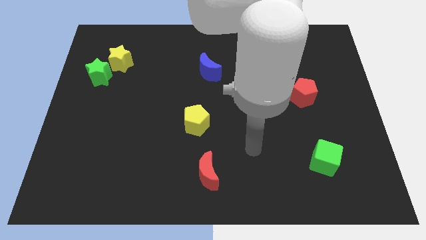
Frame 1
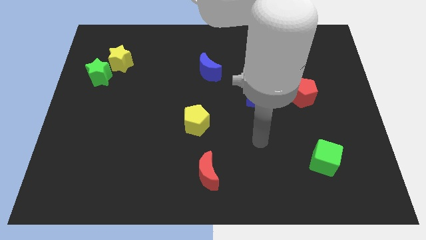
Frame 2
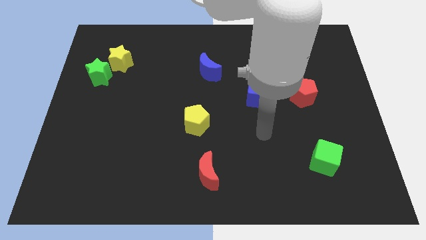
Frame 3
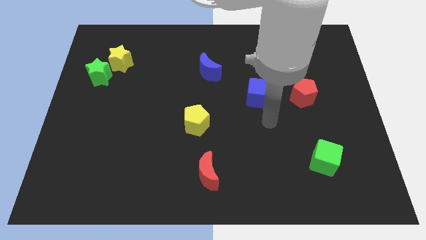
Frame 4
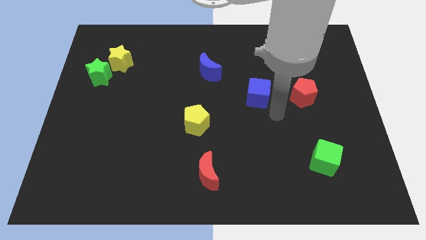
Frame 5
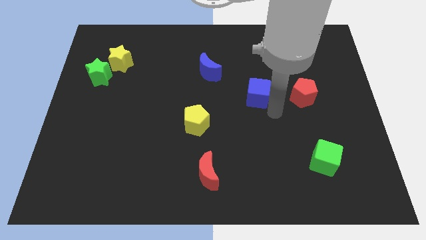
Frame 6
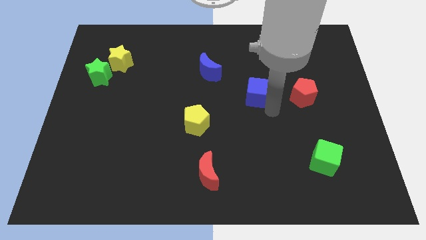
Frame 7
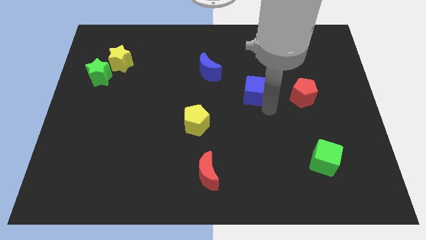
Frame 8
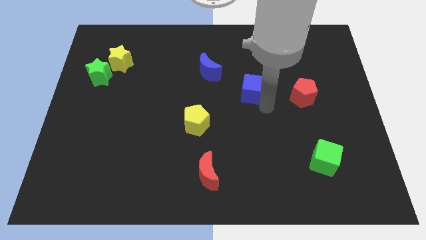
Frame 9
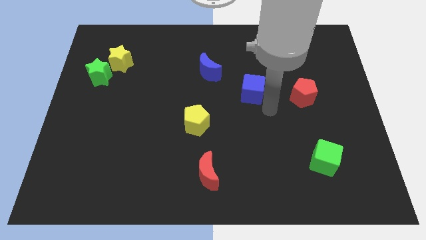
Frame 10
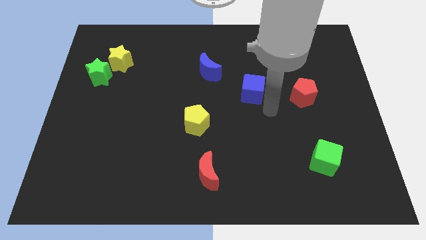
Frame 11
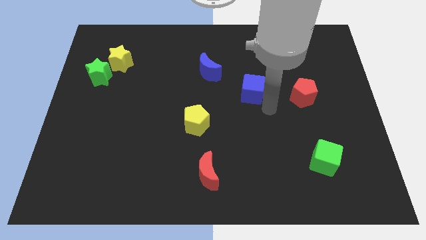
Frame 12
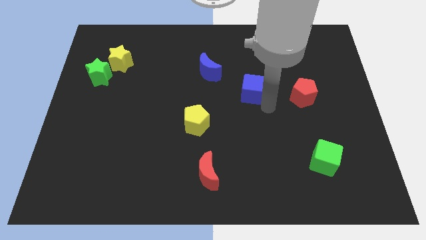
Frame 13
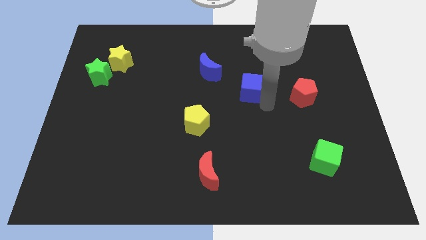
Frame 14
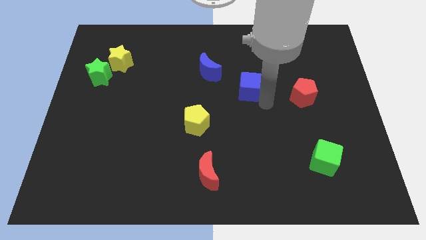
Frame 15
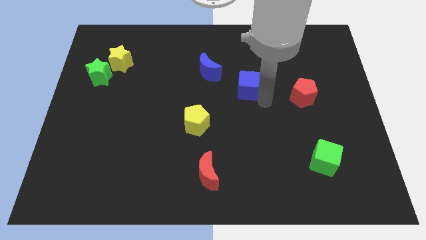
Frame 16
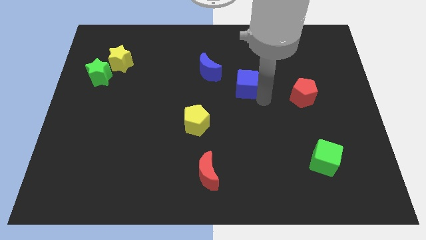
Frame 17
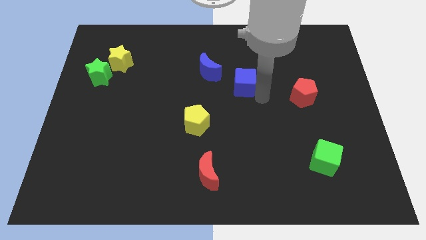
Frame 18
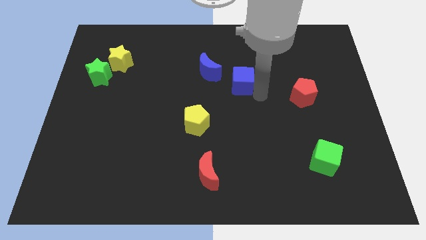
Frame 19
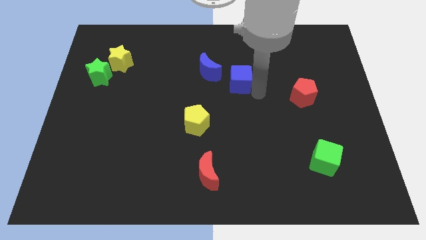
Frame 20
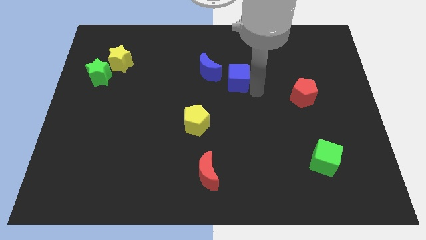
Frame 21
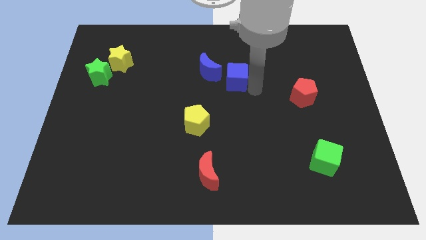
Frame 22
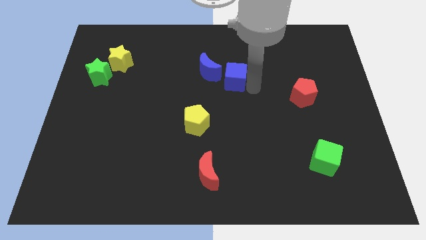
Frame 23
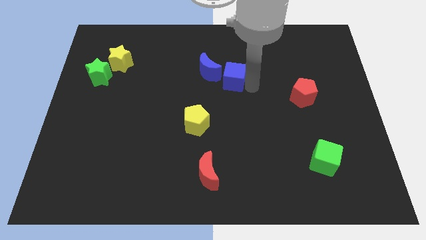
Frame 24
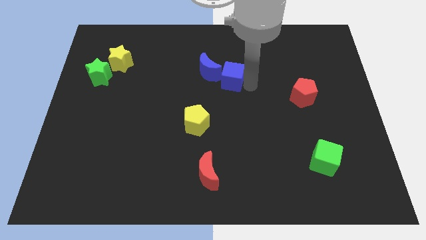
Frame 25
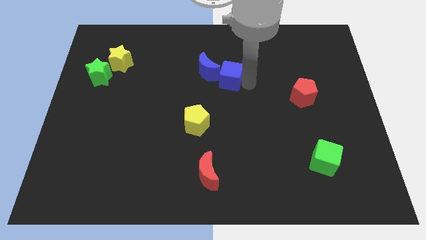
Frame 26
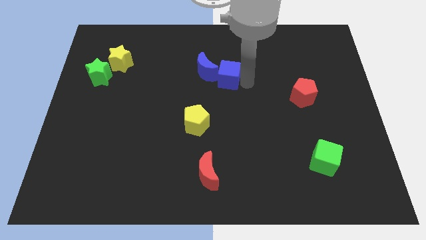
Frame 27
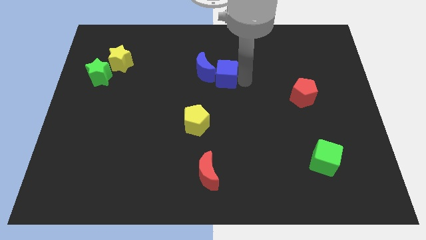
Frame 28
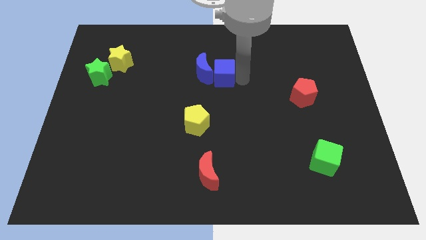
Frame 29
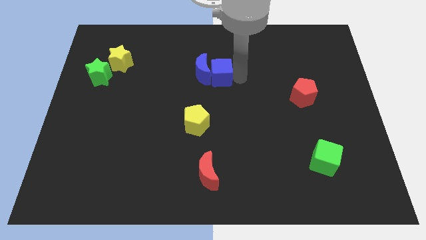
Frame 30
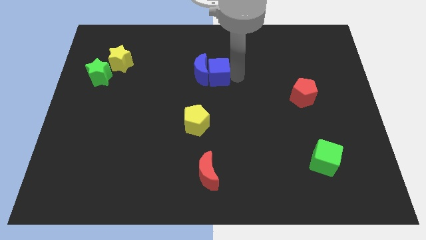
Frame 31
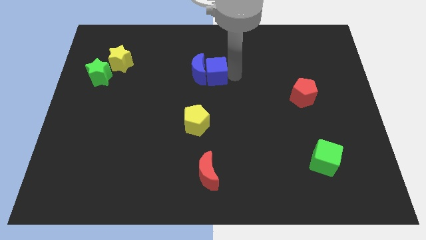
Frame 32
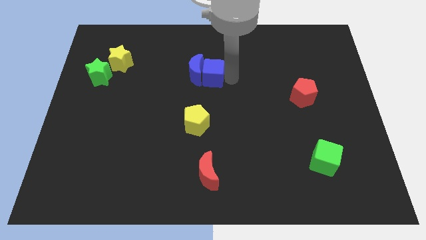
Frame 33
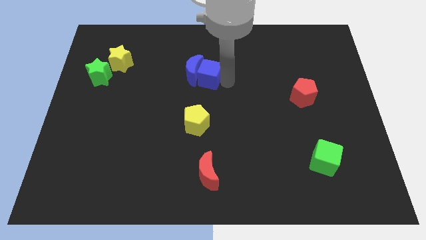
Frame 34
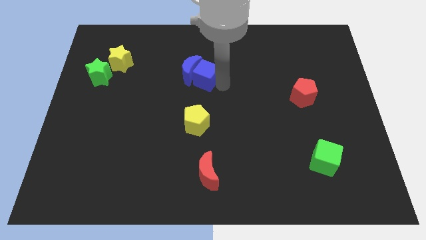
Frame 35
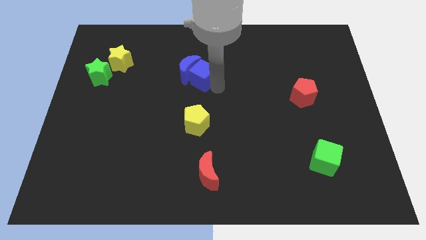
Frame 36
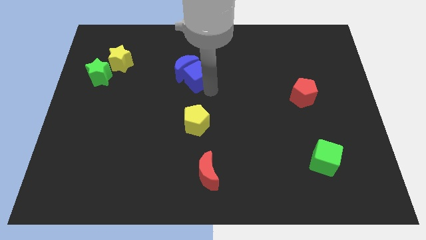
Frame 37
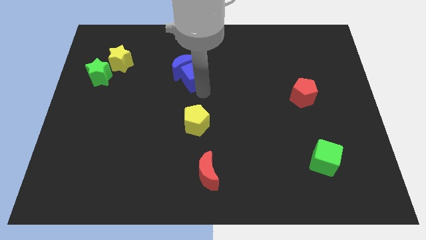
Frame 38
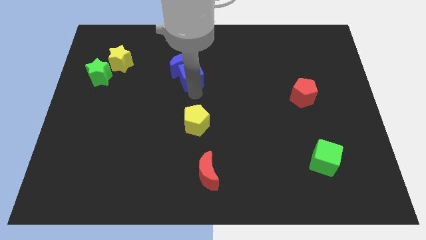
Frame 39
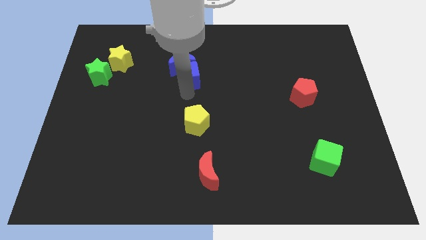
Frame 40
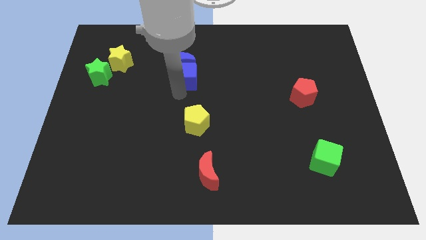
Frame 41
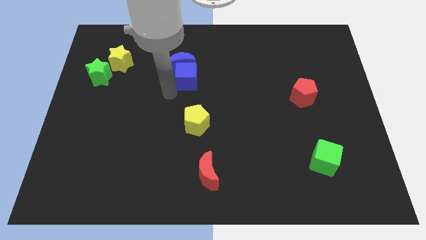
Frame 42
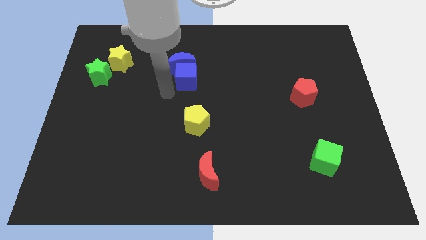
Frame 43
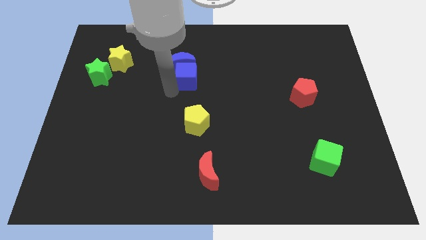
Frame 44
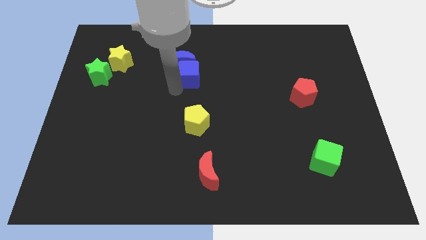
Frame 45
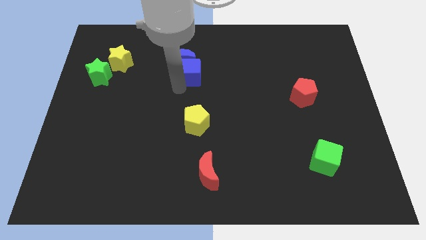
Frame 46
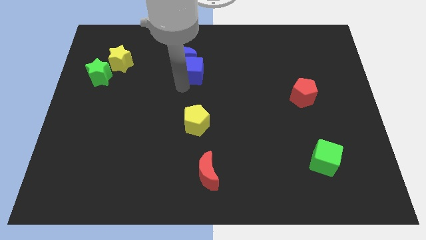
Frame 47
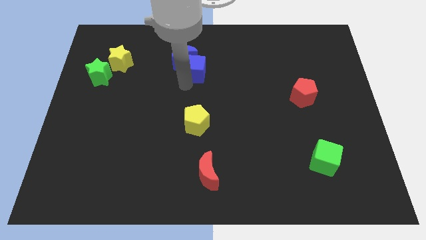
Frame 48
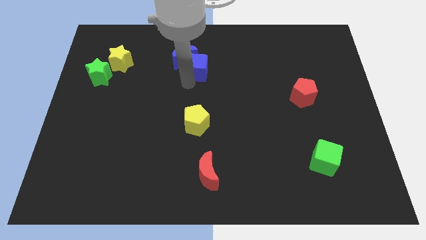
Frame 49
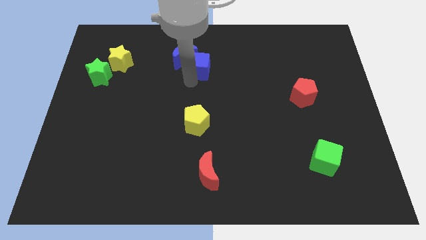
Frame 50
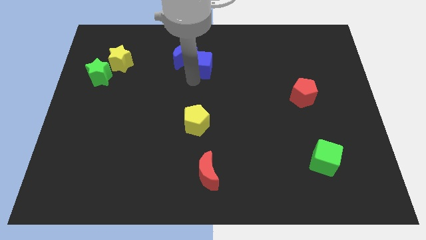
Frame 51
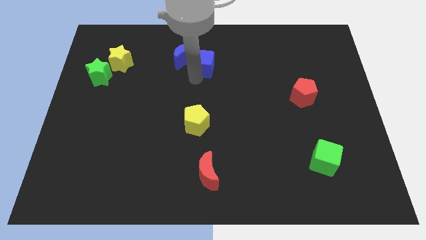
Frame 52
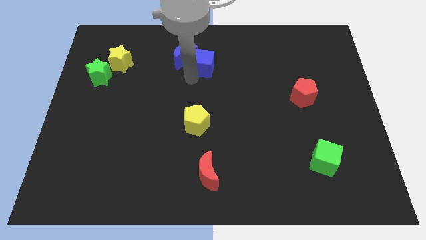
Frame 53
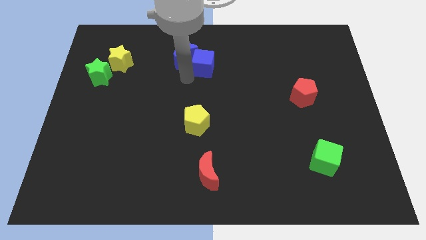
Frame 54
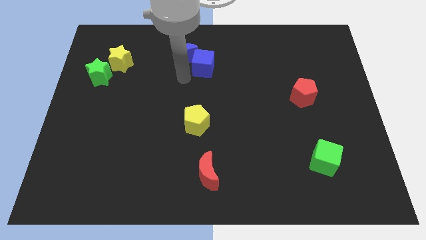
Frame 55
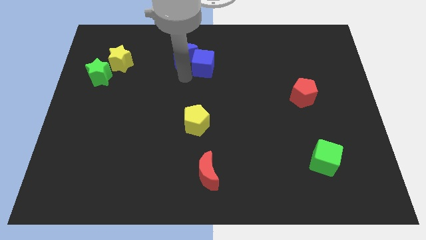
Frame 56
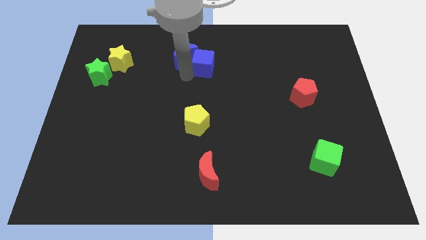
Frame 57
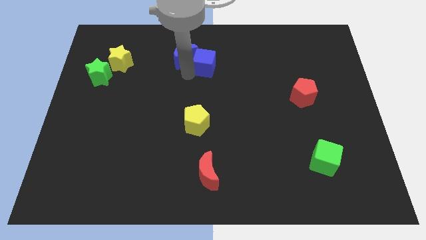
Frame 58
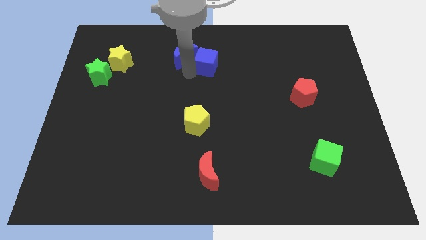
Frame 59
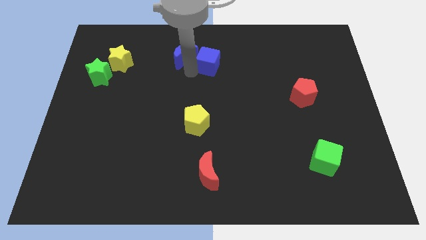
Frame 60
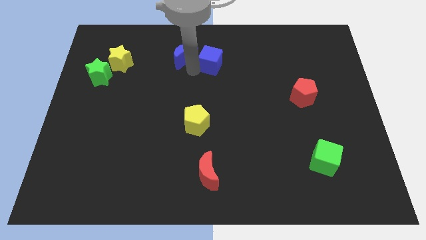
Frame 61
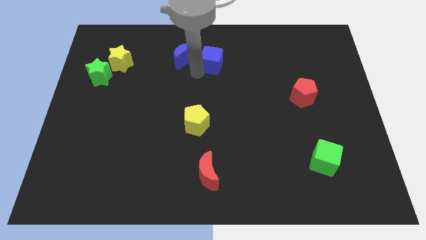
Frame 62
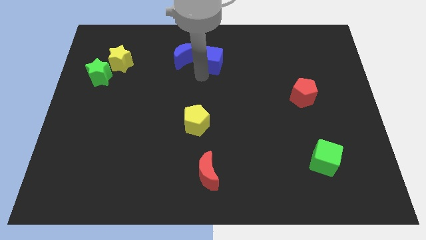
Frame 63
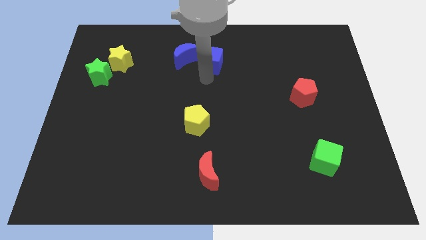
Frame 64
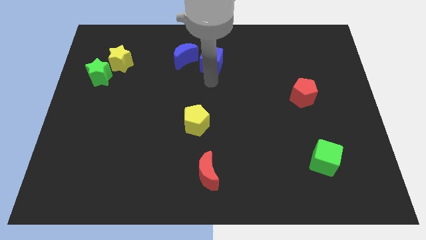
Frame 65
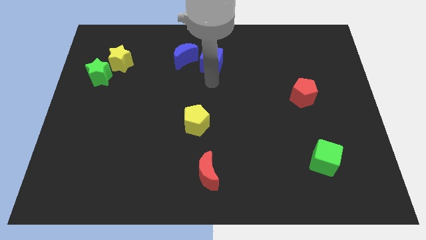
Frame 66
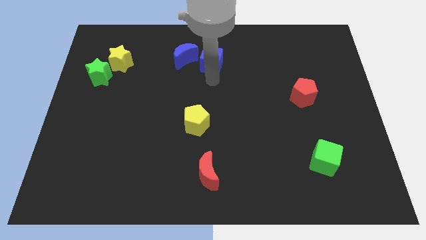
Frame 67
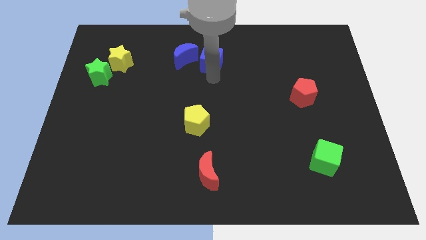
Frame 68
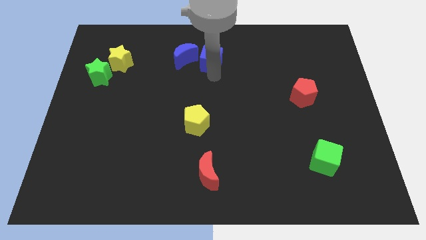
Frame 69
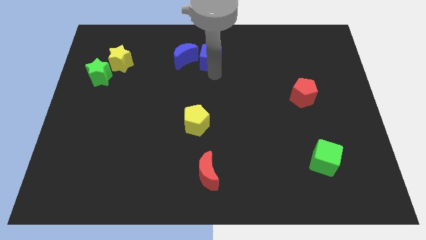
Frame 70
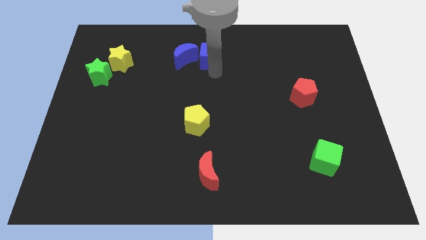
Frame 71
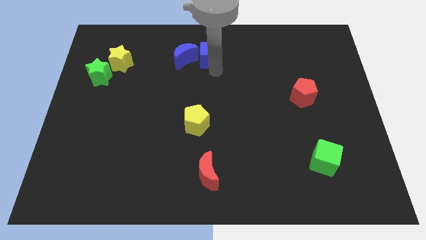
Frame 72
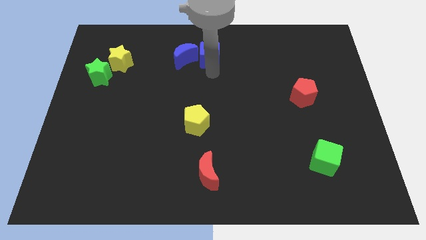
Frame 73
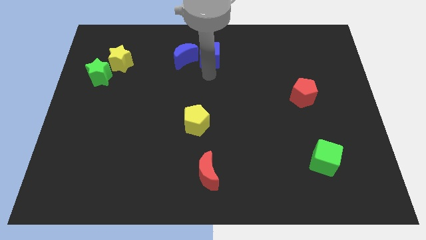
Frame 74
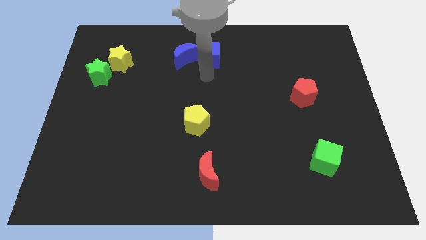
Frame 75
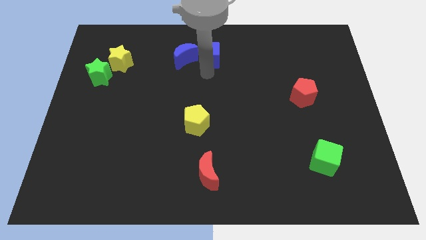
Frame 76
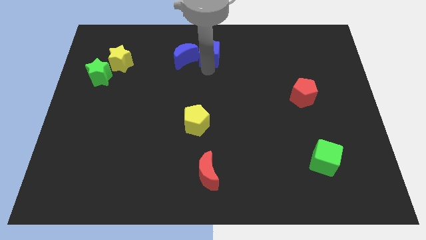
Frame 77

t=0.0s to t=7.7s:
push the blue cube to the top
